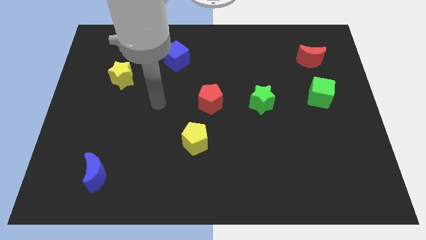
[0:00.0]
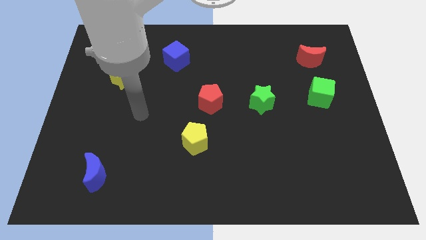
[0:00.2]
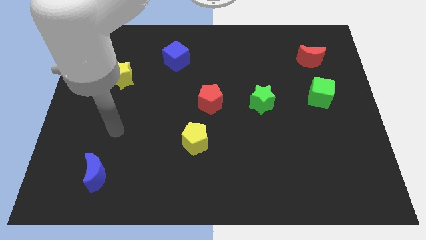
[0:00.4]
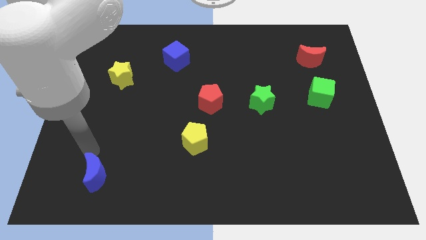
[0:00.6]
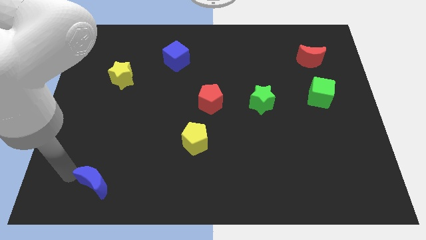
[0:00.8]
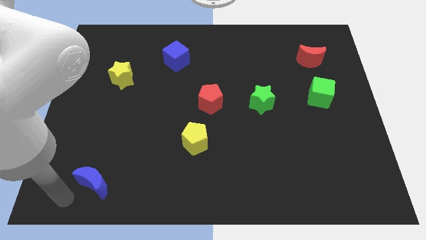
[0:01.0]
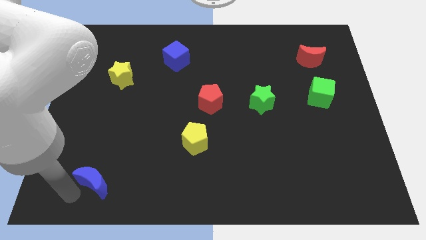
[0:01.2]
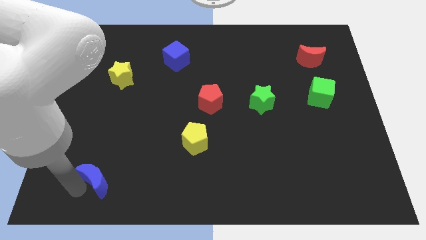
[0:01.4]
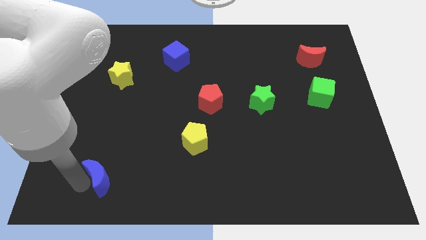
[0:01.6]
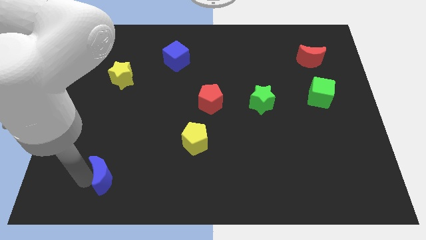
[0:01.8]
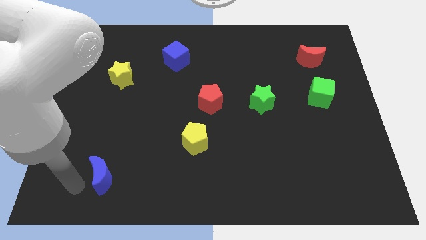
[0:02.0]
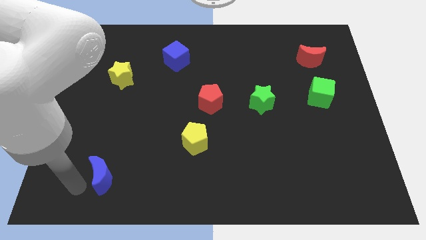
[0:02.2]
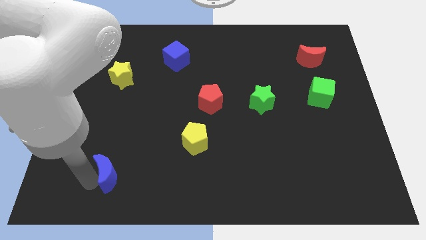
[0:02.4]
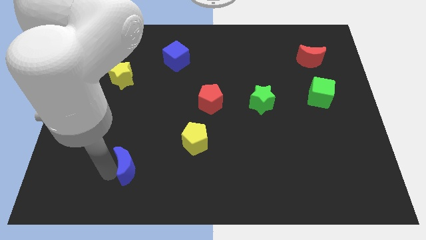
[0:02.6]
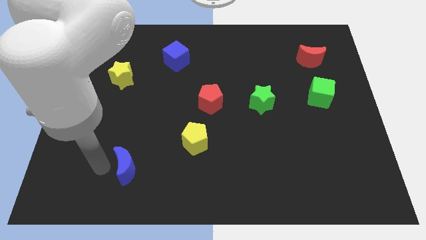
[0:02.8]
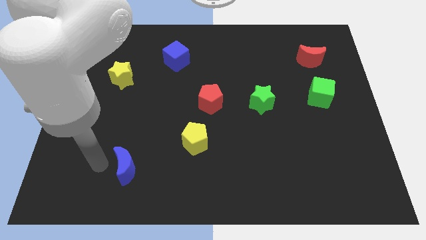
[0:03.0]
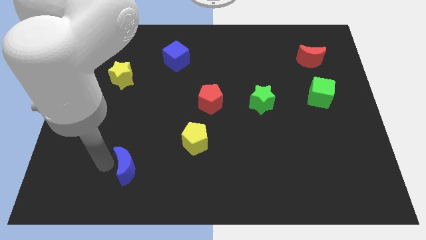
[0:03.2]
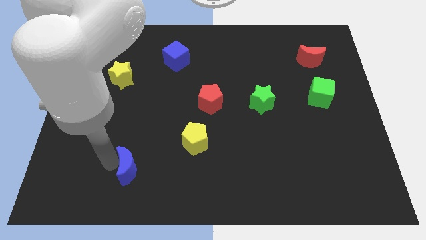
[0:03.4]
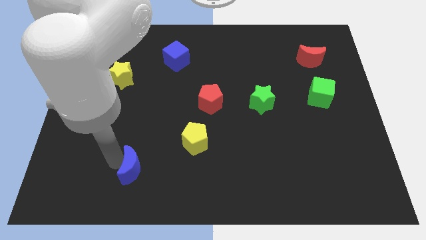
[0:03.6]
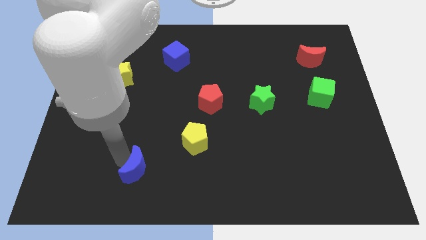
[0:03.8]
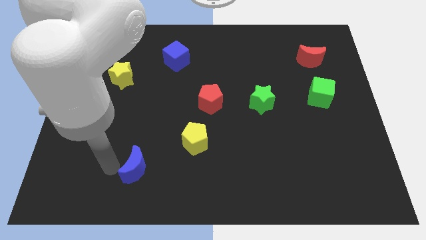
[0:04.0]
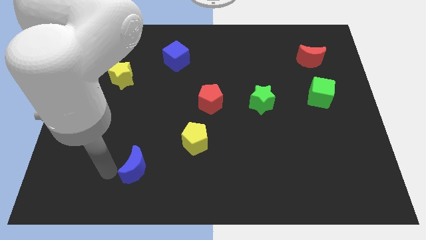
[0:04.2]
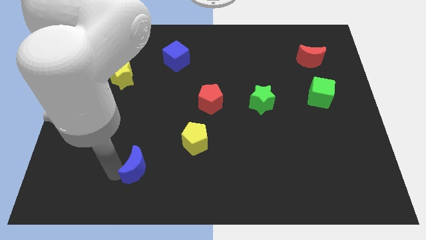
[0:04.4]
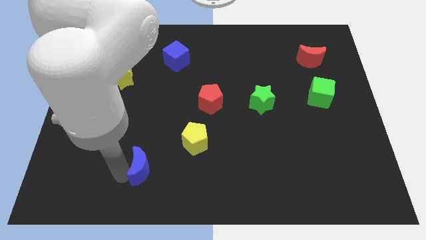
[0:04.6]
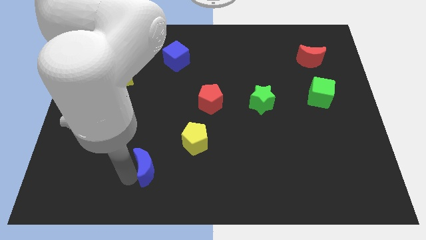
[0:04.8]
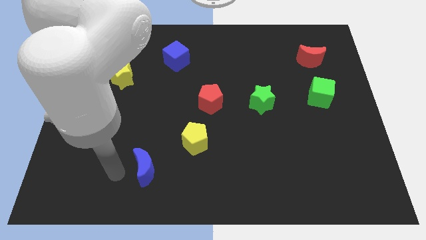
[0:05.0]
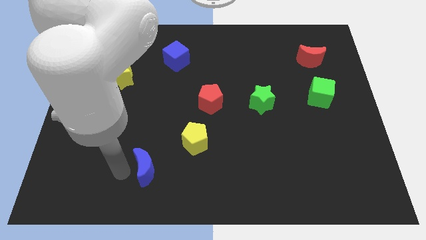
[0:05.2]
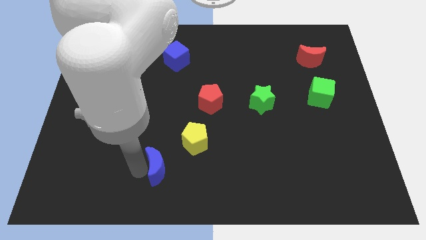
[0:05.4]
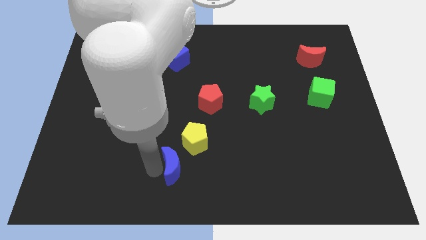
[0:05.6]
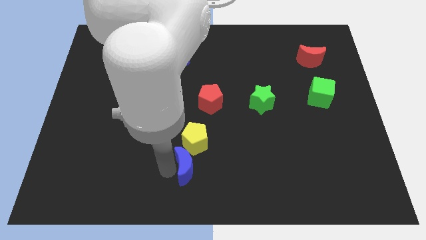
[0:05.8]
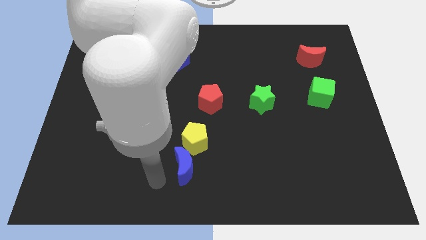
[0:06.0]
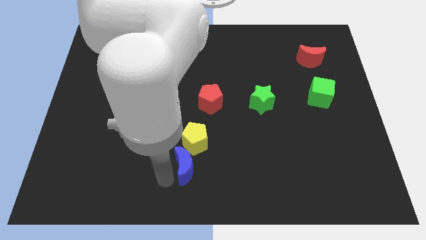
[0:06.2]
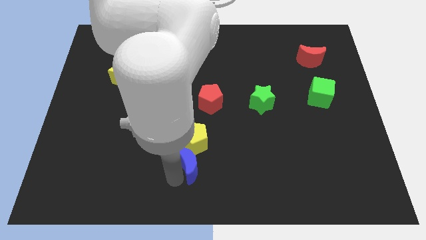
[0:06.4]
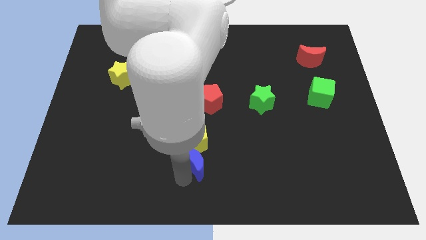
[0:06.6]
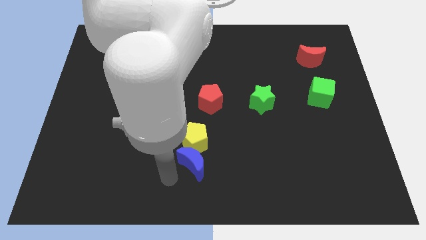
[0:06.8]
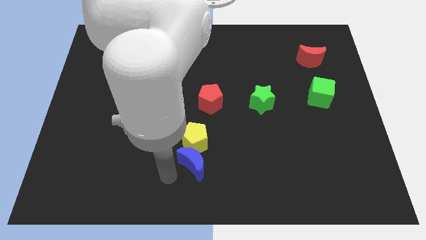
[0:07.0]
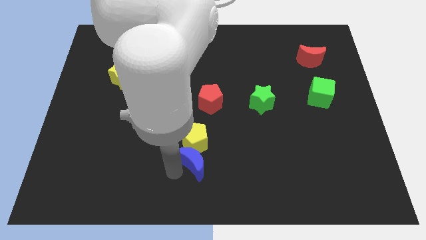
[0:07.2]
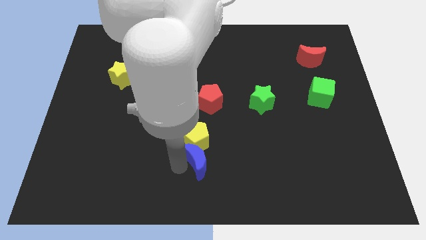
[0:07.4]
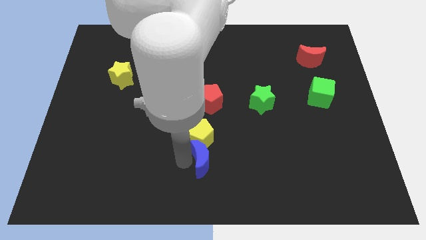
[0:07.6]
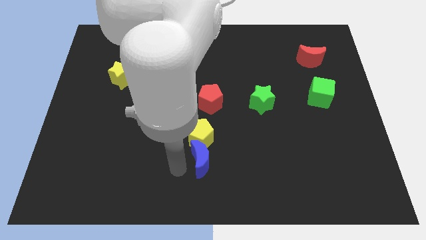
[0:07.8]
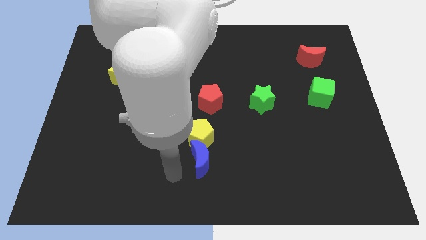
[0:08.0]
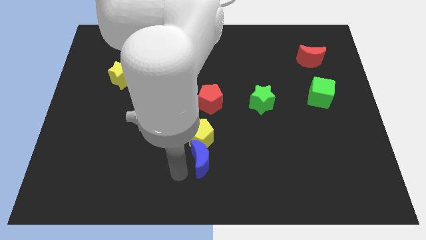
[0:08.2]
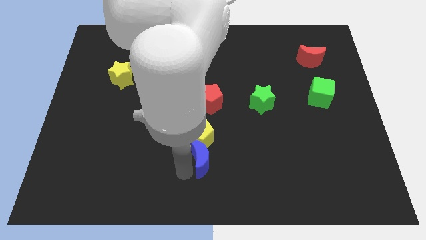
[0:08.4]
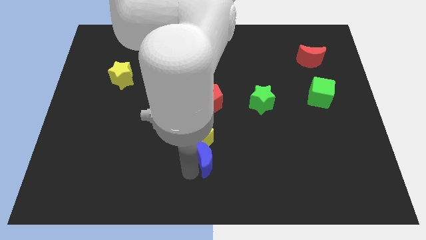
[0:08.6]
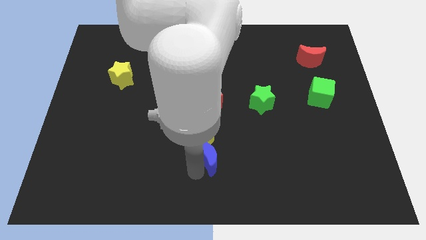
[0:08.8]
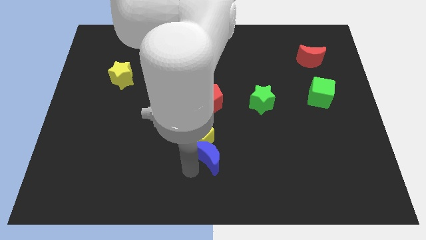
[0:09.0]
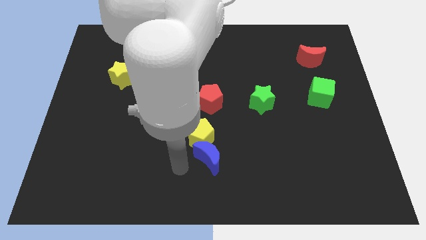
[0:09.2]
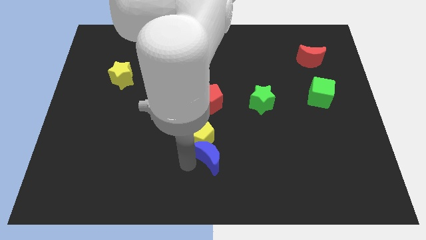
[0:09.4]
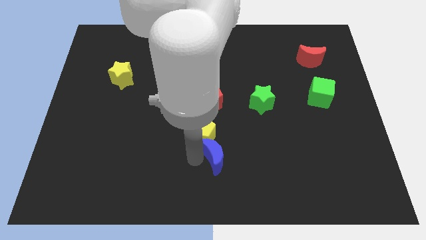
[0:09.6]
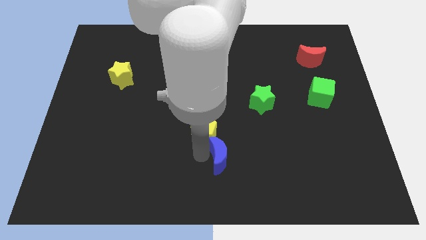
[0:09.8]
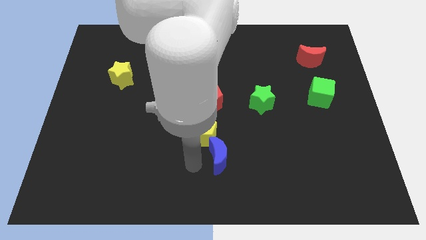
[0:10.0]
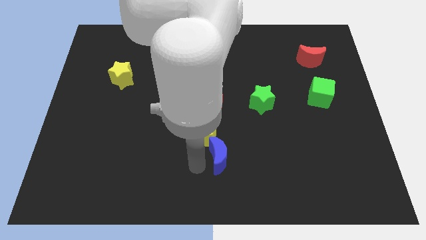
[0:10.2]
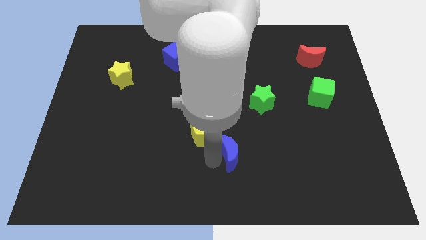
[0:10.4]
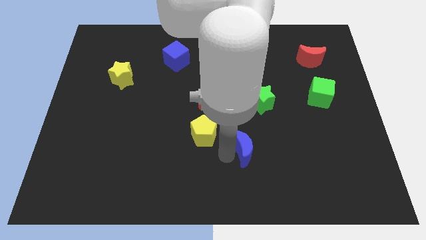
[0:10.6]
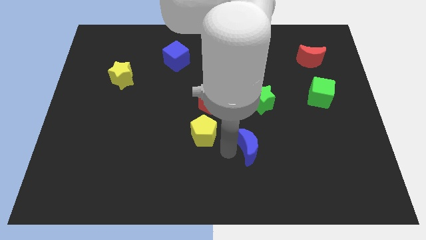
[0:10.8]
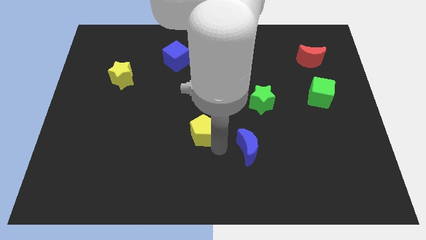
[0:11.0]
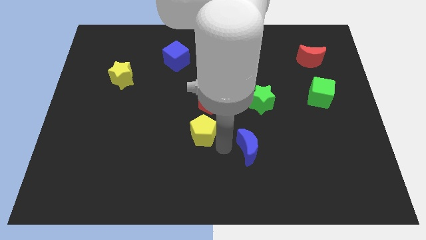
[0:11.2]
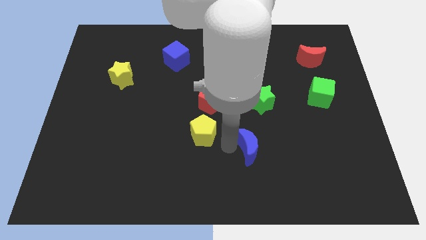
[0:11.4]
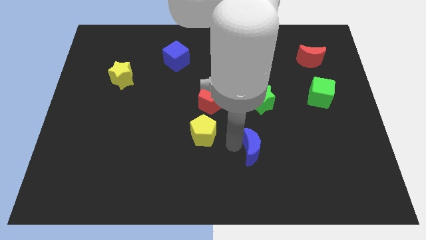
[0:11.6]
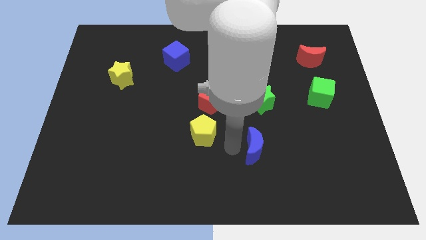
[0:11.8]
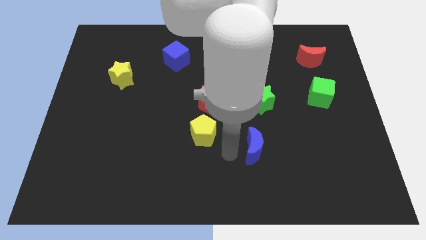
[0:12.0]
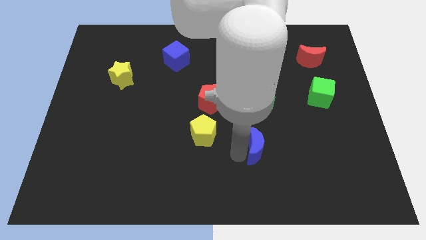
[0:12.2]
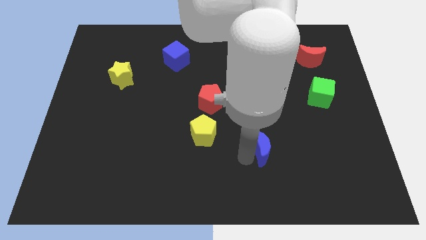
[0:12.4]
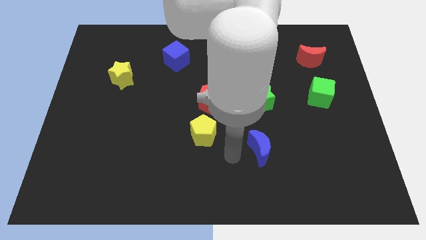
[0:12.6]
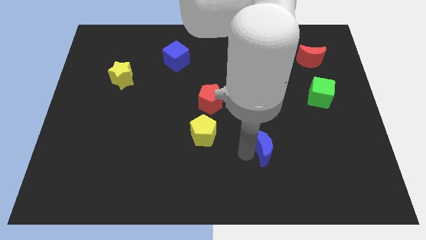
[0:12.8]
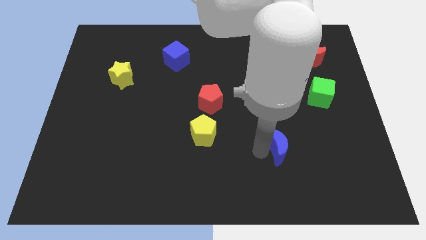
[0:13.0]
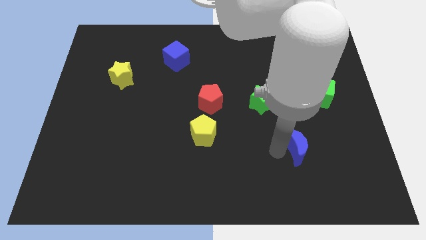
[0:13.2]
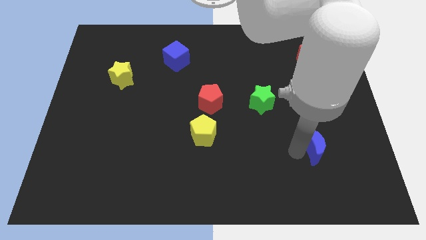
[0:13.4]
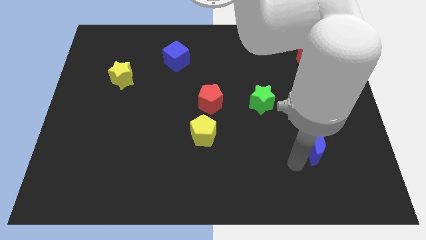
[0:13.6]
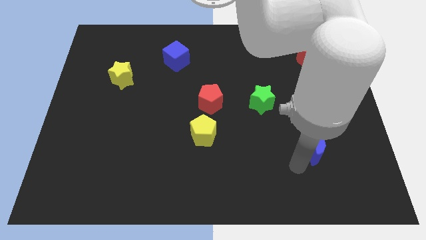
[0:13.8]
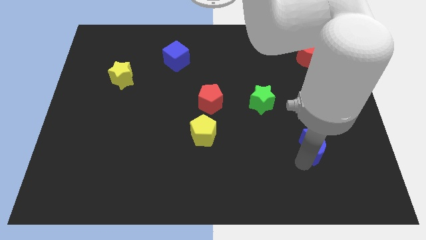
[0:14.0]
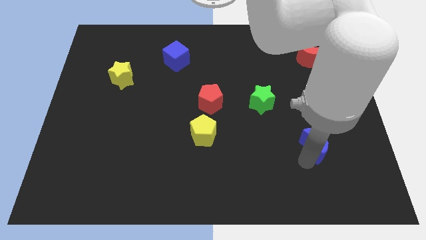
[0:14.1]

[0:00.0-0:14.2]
slide the blue moon below the green cube

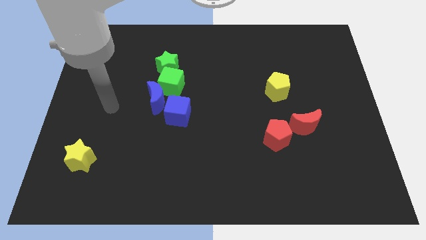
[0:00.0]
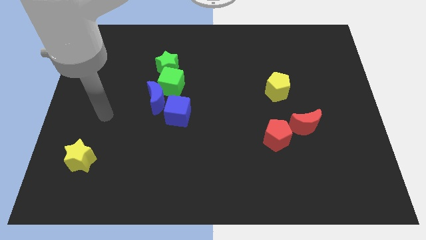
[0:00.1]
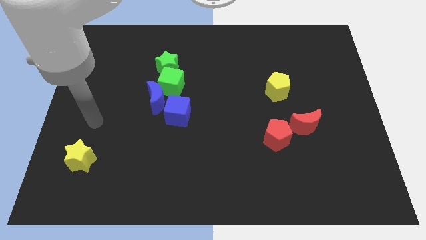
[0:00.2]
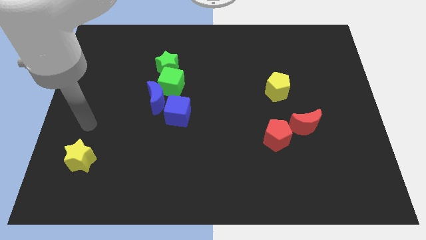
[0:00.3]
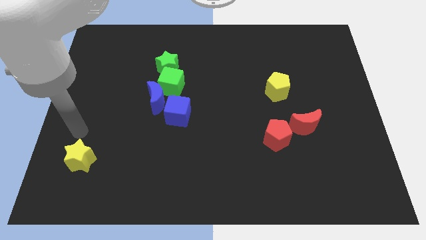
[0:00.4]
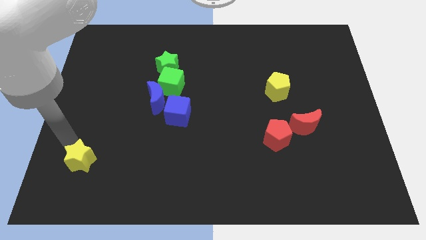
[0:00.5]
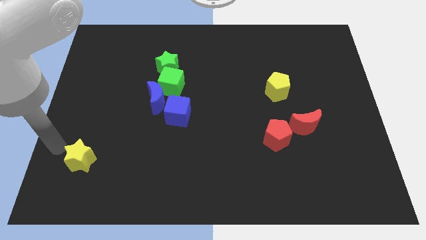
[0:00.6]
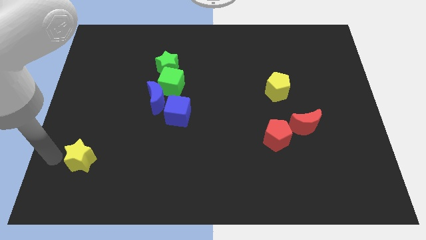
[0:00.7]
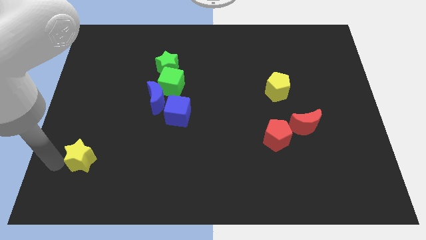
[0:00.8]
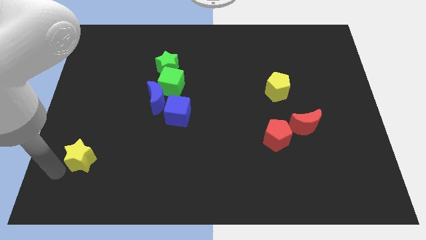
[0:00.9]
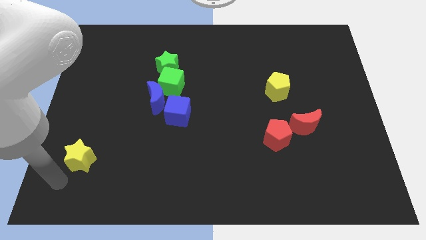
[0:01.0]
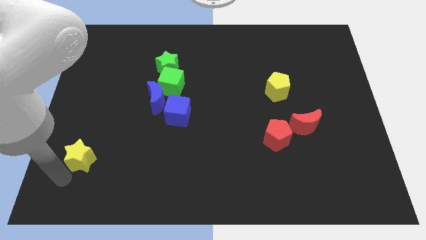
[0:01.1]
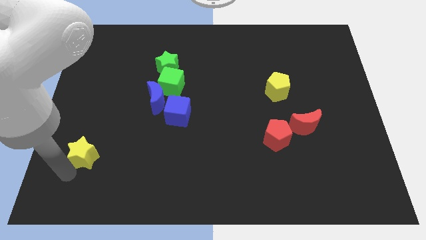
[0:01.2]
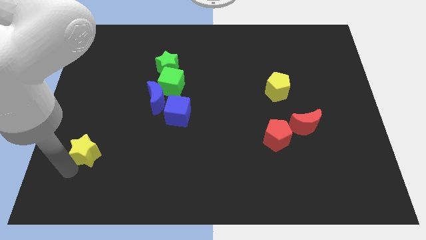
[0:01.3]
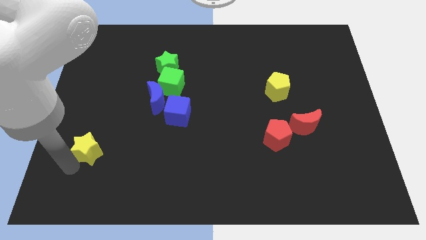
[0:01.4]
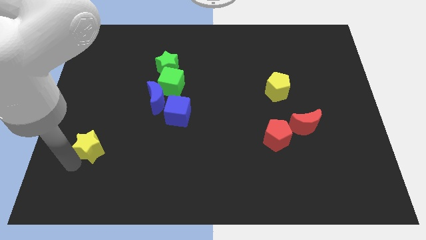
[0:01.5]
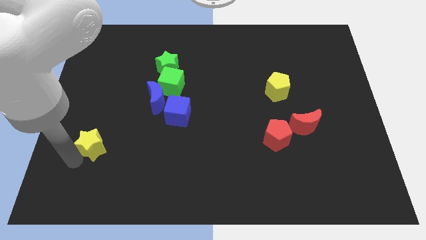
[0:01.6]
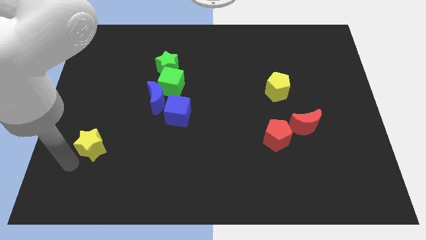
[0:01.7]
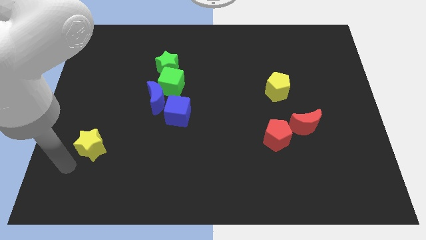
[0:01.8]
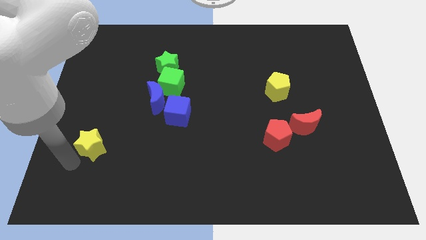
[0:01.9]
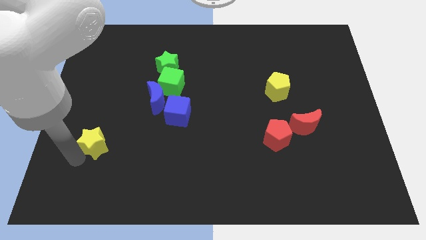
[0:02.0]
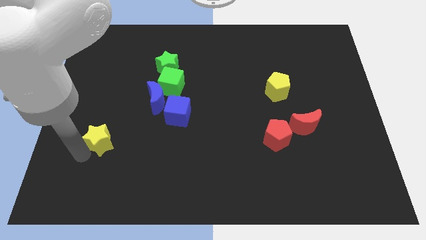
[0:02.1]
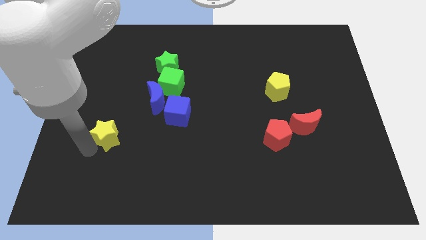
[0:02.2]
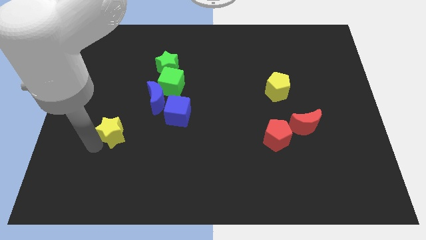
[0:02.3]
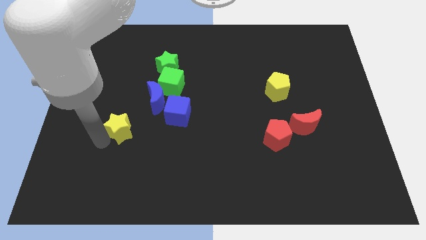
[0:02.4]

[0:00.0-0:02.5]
push the yellow star to the left of the blue cube
